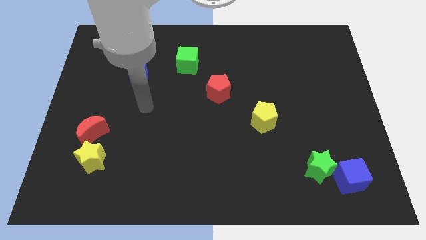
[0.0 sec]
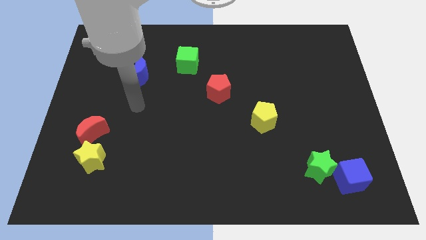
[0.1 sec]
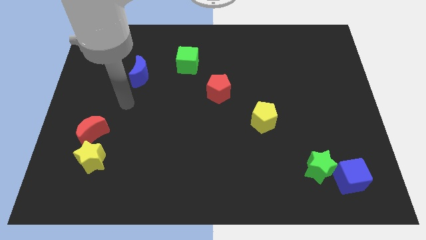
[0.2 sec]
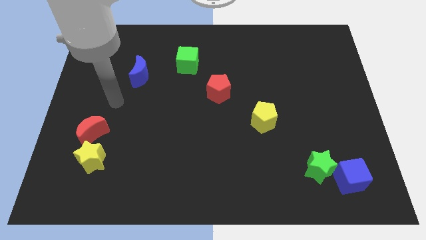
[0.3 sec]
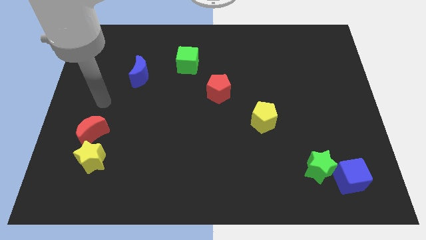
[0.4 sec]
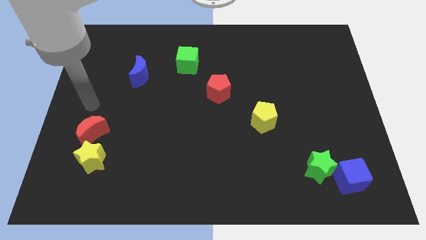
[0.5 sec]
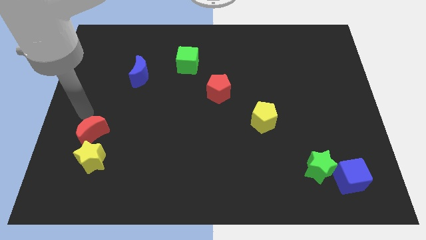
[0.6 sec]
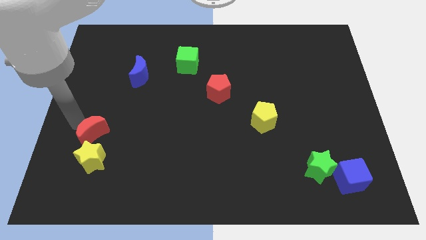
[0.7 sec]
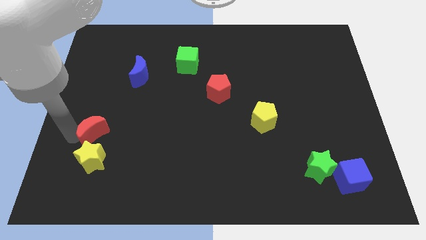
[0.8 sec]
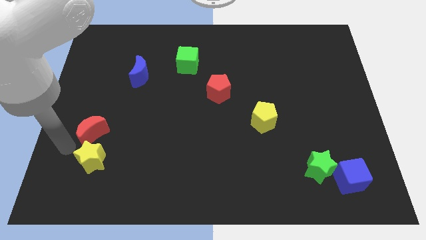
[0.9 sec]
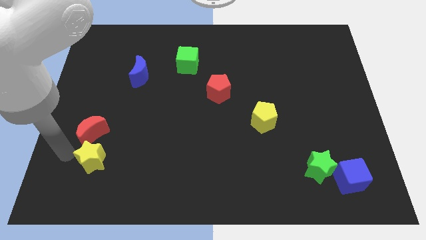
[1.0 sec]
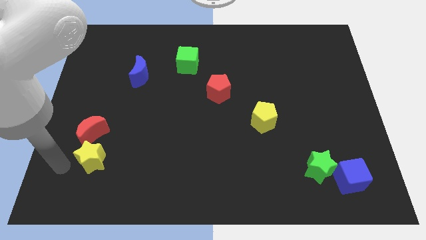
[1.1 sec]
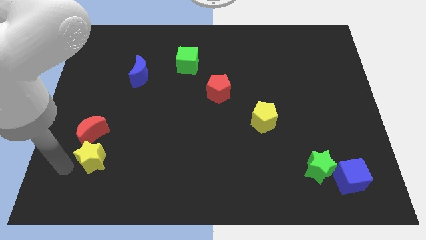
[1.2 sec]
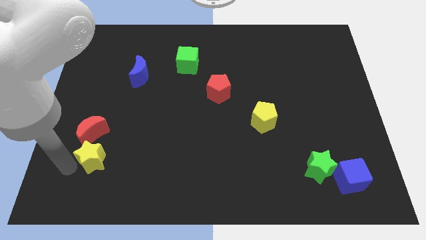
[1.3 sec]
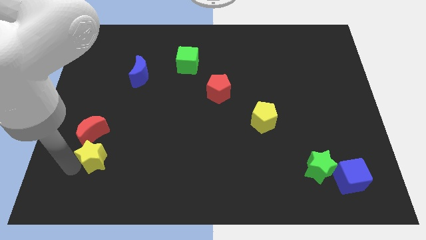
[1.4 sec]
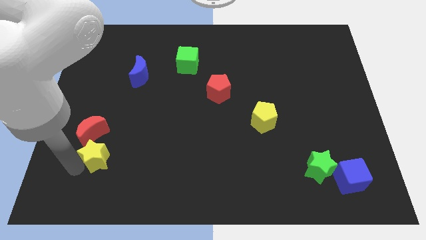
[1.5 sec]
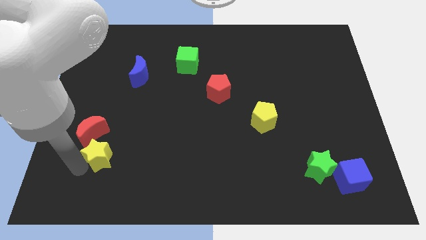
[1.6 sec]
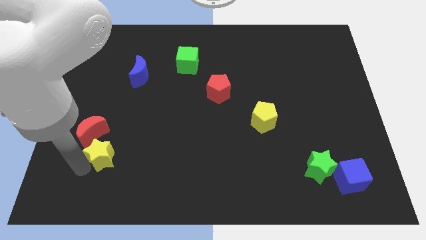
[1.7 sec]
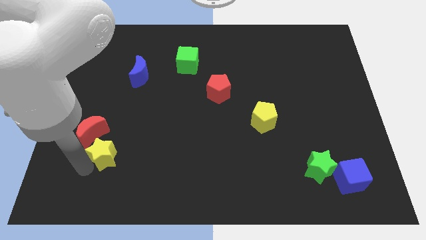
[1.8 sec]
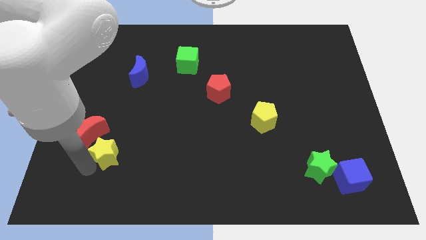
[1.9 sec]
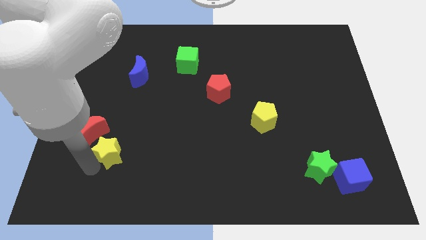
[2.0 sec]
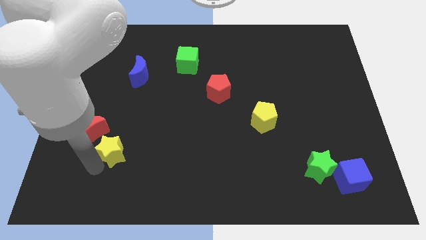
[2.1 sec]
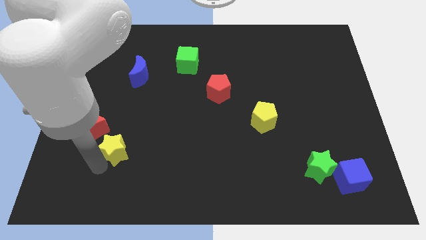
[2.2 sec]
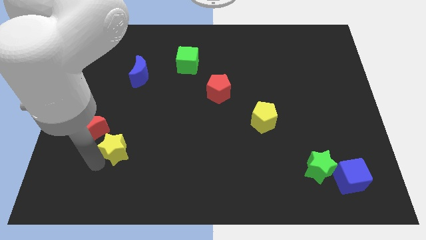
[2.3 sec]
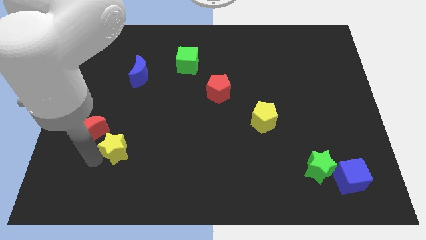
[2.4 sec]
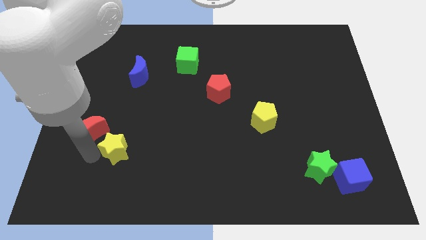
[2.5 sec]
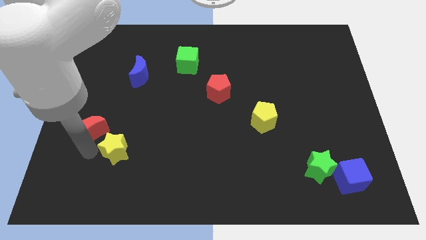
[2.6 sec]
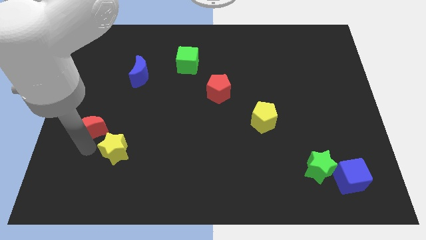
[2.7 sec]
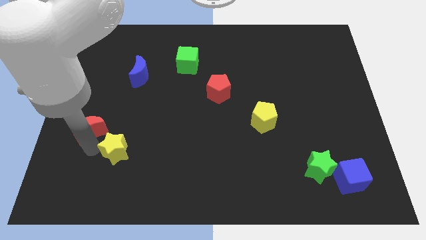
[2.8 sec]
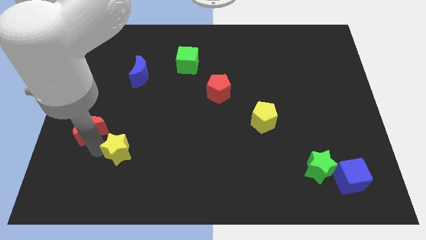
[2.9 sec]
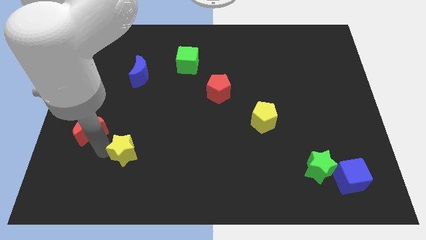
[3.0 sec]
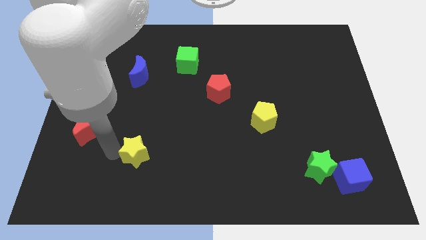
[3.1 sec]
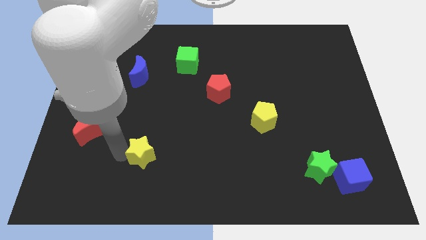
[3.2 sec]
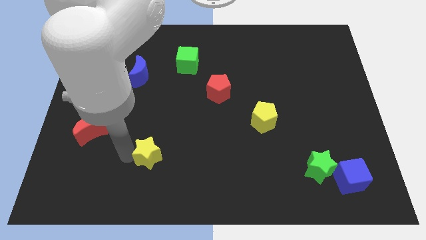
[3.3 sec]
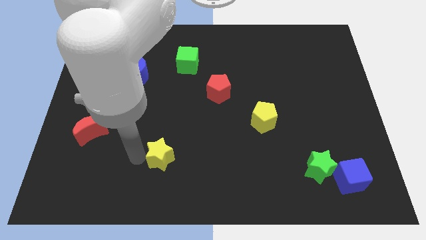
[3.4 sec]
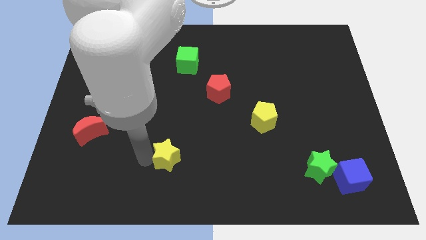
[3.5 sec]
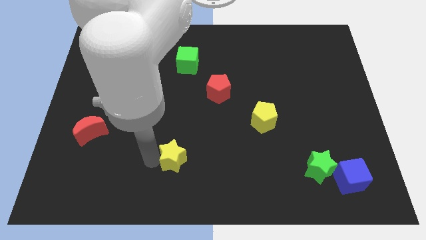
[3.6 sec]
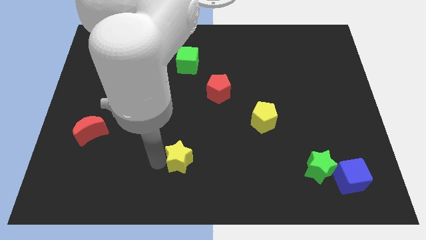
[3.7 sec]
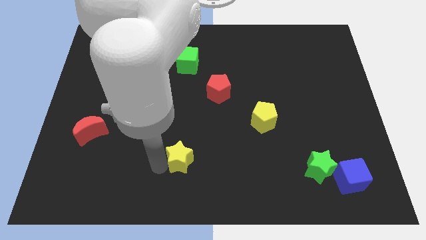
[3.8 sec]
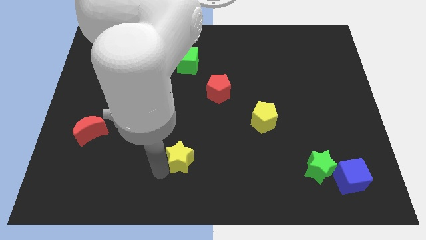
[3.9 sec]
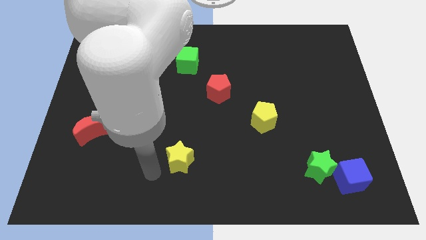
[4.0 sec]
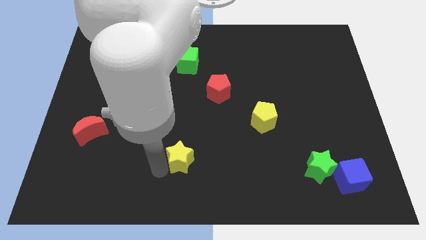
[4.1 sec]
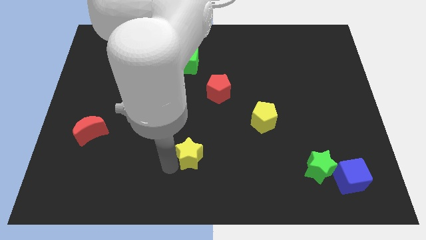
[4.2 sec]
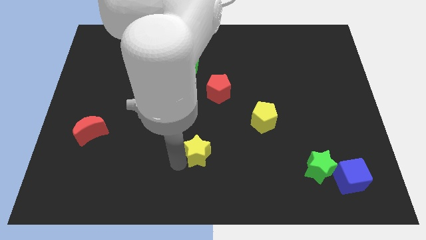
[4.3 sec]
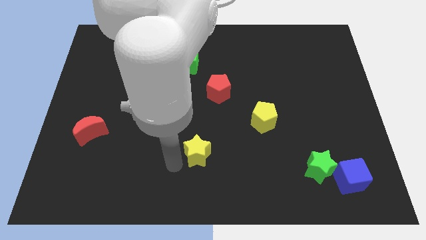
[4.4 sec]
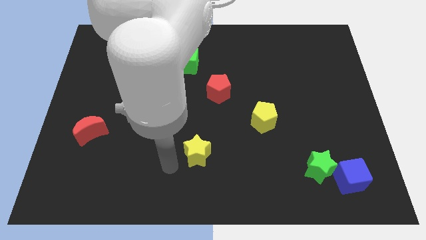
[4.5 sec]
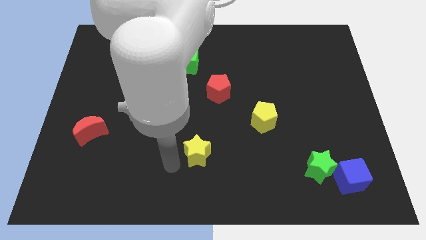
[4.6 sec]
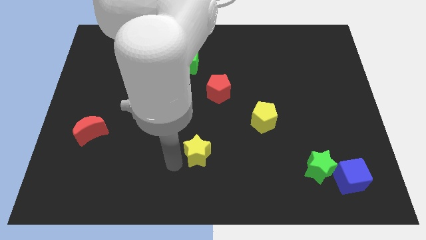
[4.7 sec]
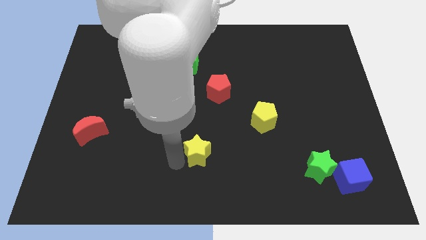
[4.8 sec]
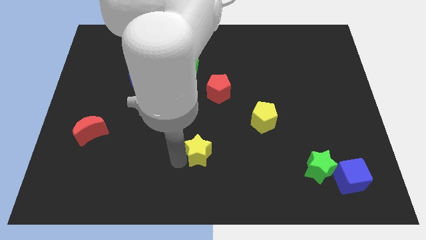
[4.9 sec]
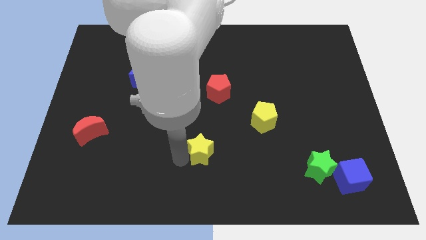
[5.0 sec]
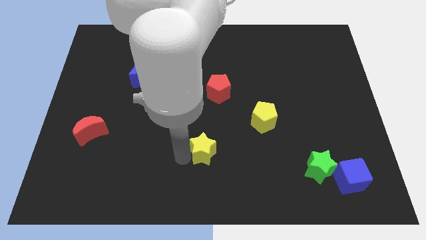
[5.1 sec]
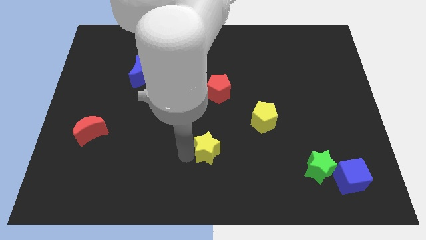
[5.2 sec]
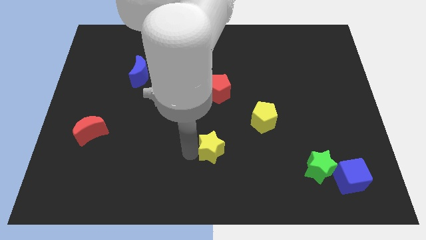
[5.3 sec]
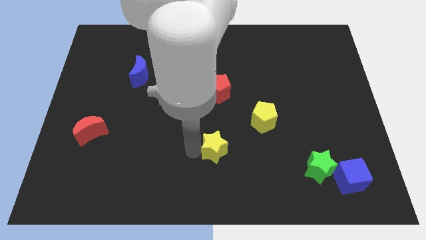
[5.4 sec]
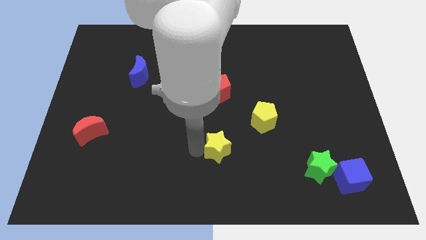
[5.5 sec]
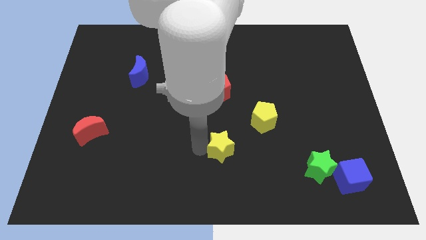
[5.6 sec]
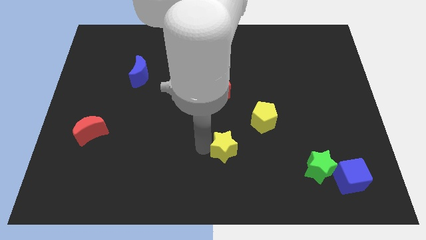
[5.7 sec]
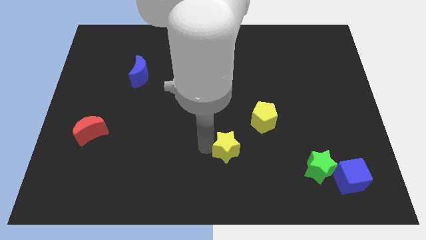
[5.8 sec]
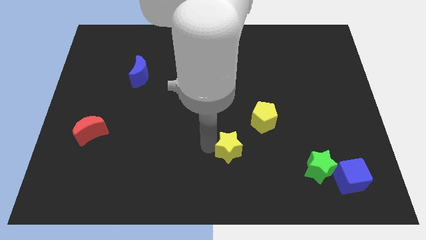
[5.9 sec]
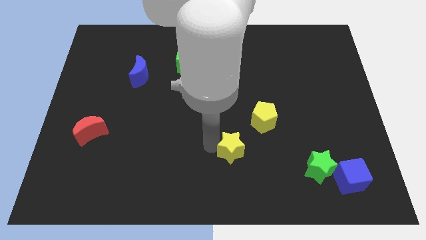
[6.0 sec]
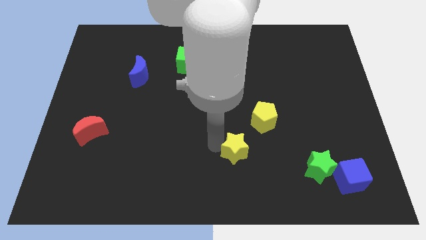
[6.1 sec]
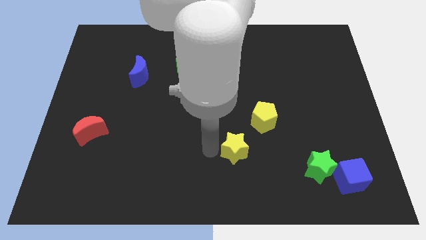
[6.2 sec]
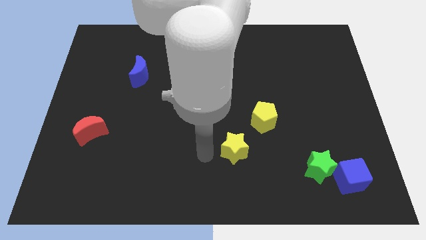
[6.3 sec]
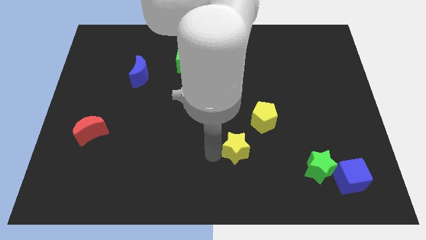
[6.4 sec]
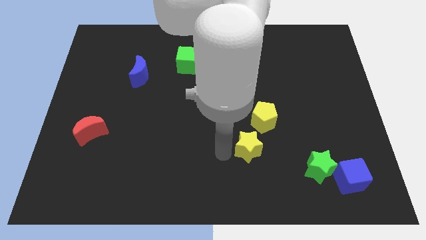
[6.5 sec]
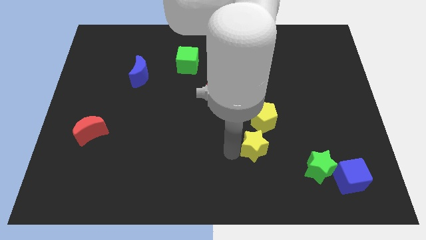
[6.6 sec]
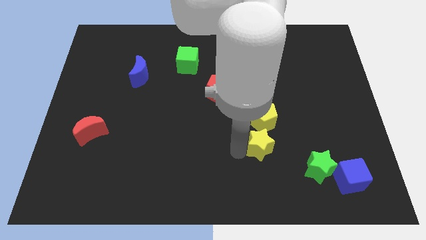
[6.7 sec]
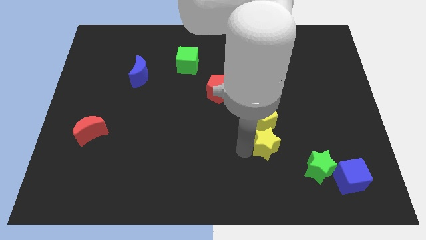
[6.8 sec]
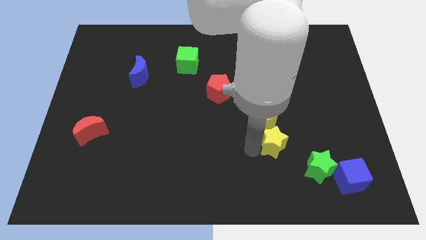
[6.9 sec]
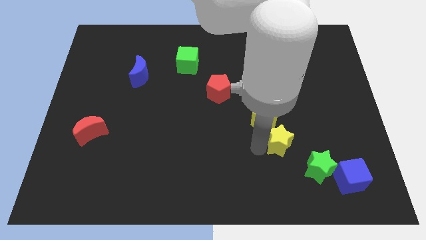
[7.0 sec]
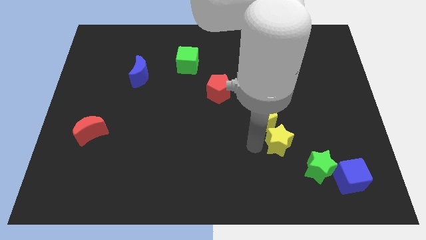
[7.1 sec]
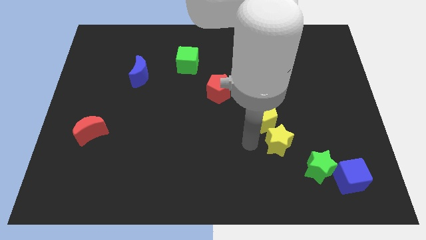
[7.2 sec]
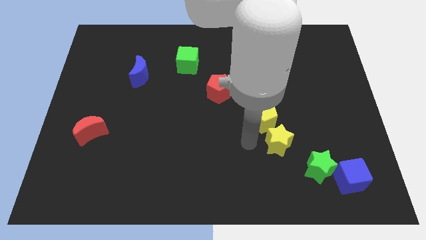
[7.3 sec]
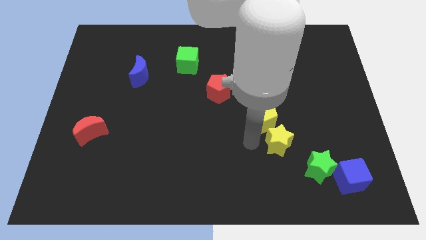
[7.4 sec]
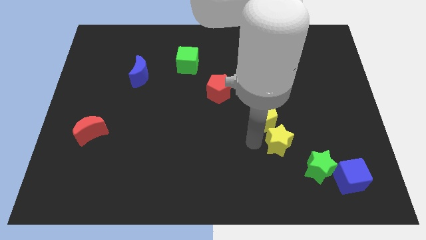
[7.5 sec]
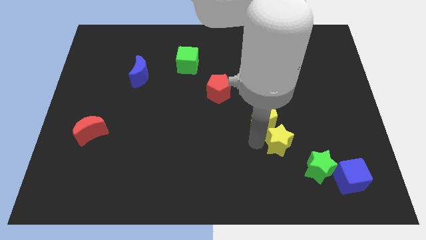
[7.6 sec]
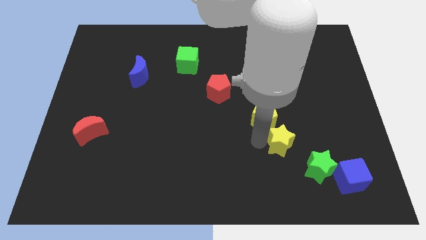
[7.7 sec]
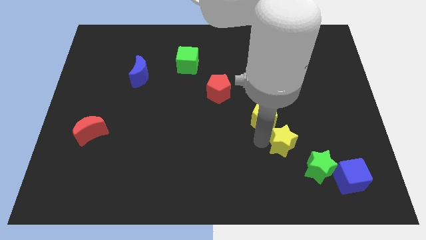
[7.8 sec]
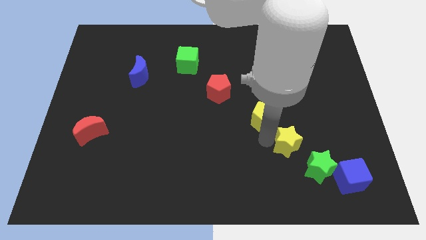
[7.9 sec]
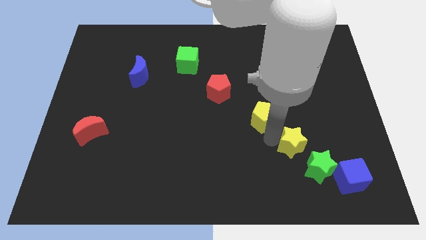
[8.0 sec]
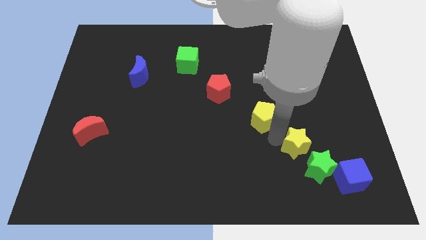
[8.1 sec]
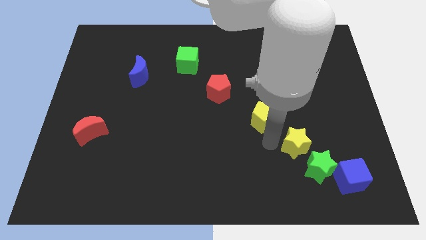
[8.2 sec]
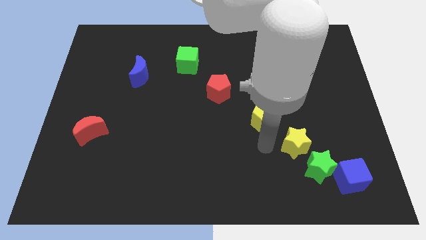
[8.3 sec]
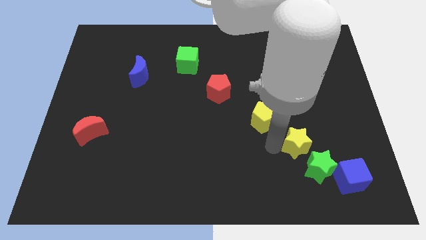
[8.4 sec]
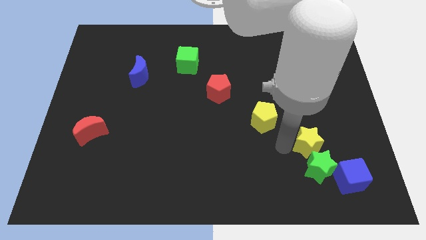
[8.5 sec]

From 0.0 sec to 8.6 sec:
put the yellow star diagonally up and to the right of the green star
